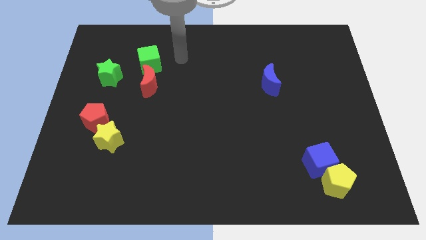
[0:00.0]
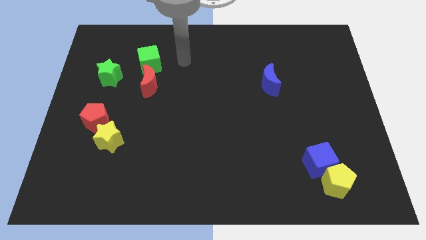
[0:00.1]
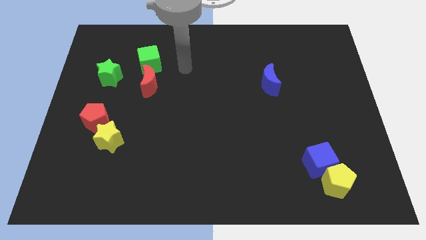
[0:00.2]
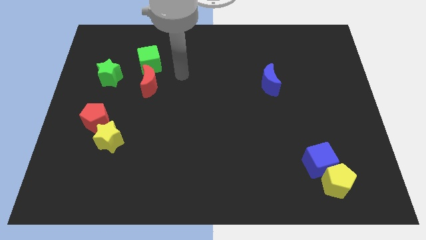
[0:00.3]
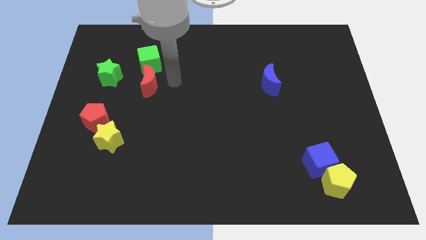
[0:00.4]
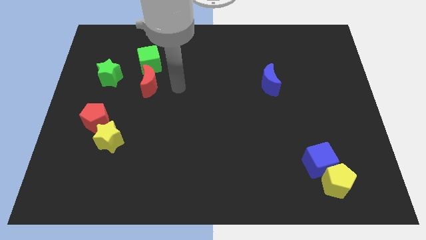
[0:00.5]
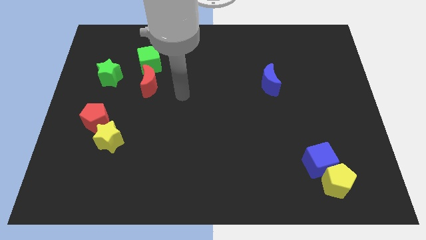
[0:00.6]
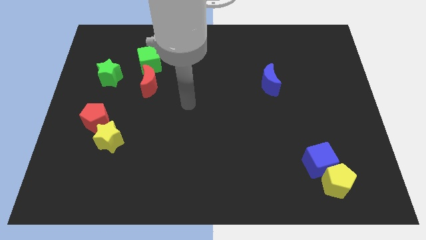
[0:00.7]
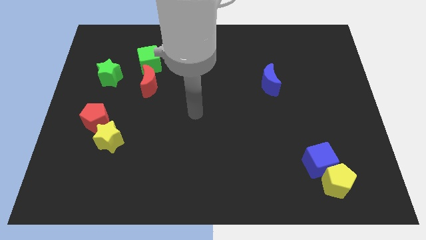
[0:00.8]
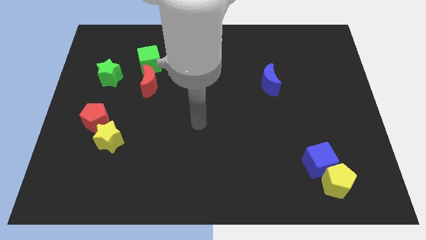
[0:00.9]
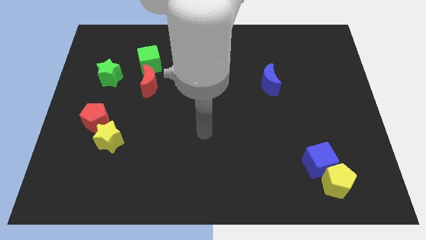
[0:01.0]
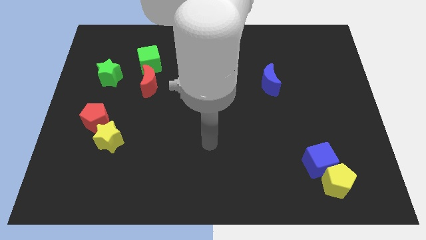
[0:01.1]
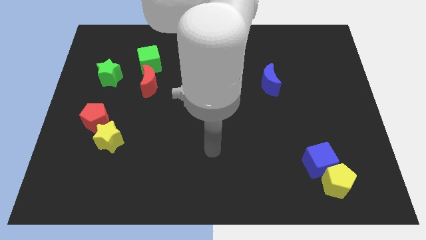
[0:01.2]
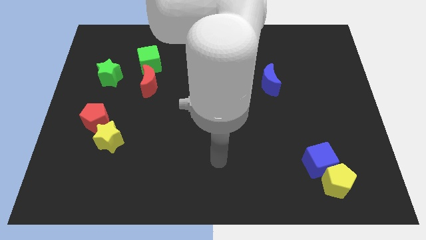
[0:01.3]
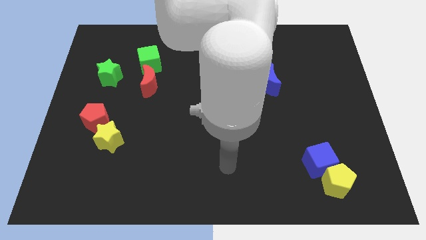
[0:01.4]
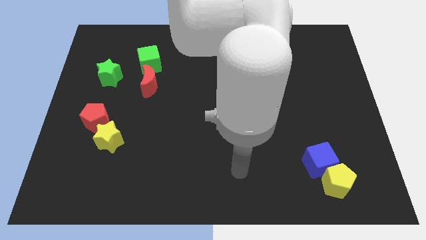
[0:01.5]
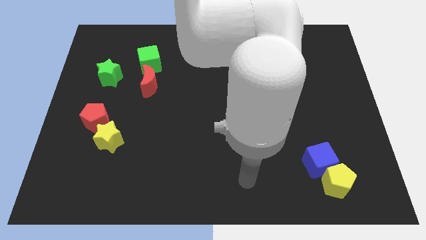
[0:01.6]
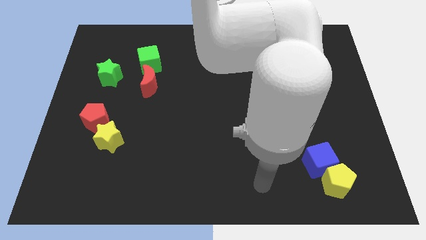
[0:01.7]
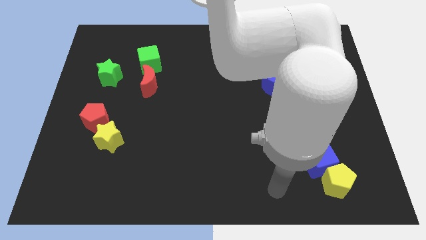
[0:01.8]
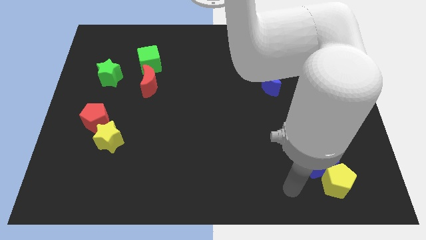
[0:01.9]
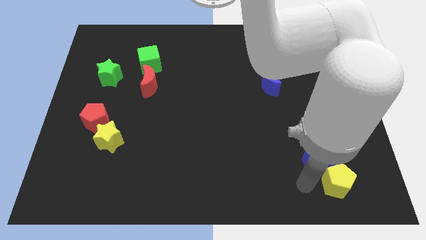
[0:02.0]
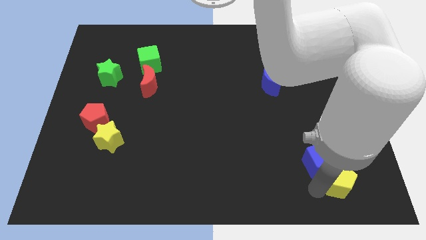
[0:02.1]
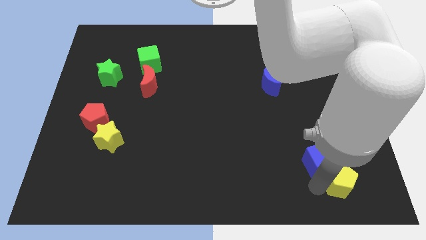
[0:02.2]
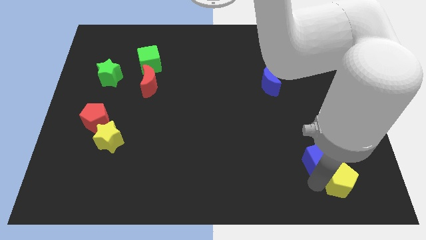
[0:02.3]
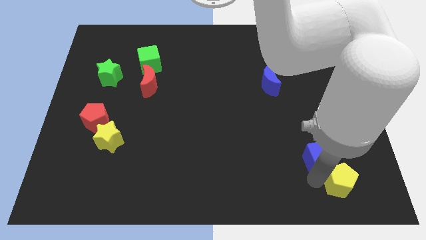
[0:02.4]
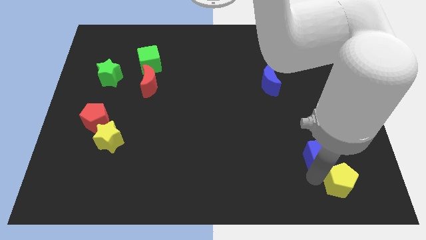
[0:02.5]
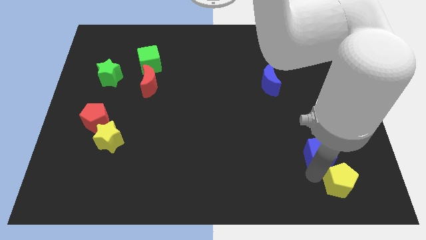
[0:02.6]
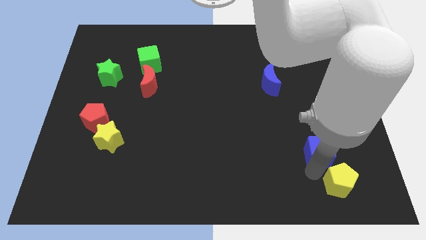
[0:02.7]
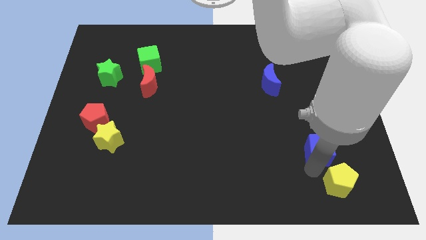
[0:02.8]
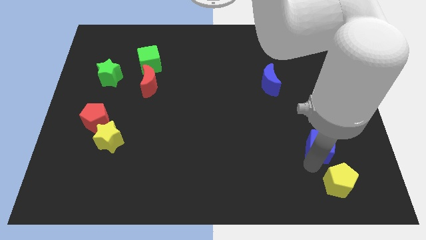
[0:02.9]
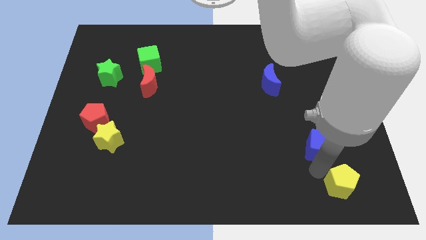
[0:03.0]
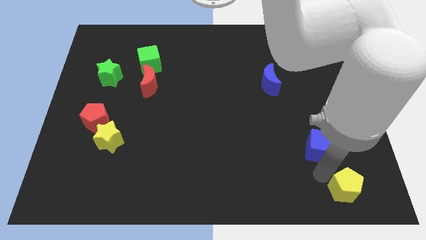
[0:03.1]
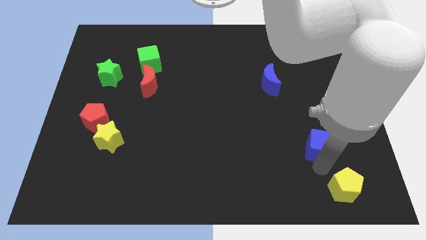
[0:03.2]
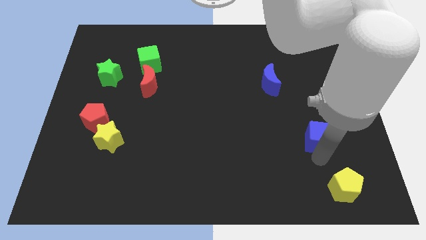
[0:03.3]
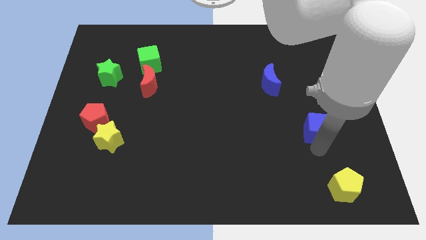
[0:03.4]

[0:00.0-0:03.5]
slightly move the blue cube up

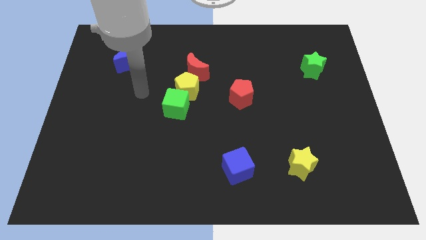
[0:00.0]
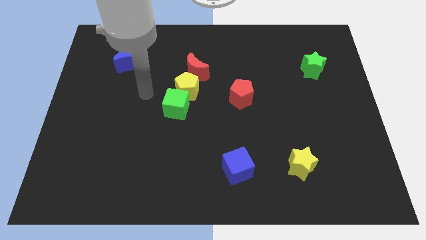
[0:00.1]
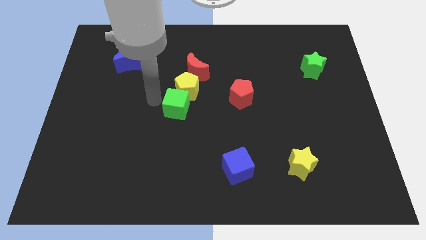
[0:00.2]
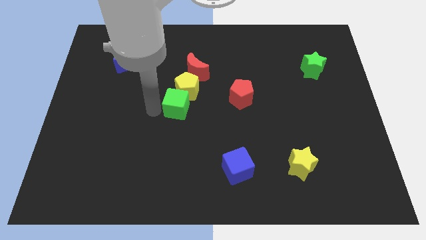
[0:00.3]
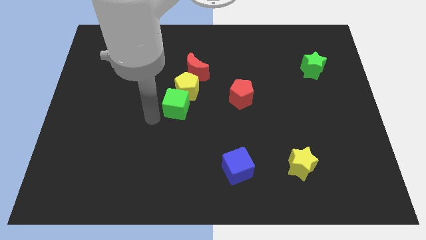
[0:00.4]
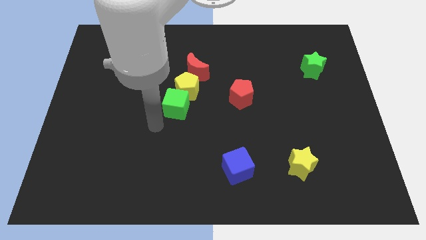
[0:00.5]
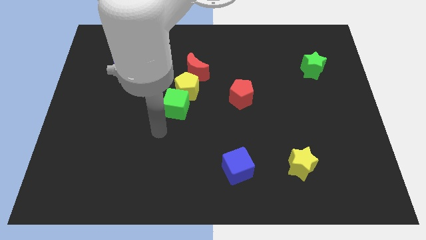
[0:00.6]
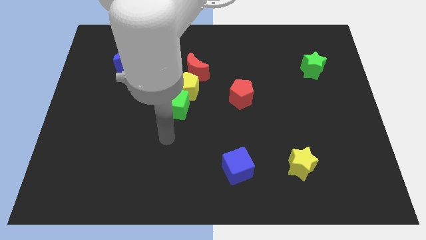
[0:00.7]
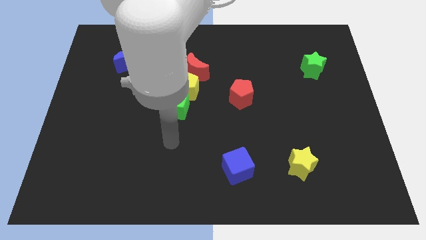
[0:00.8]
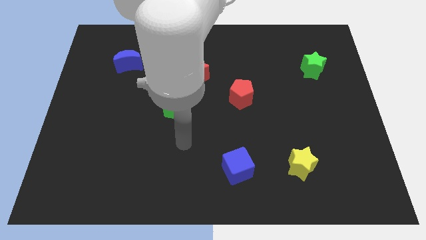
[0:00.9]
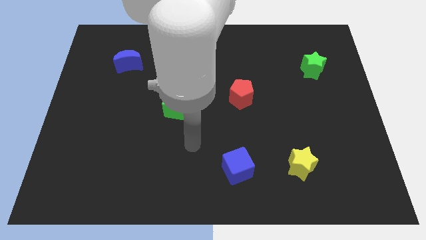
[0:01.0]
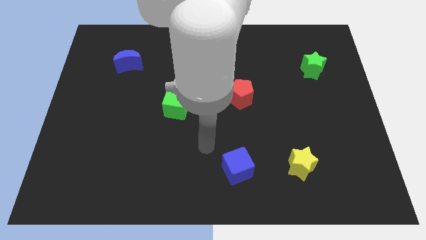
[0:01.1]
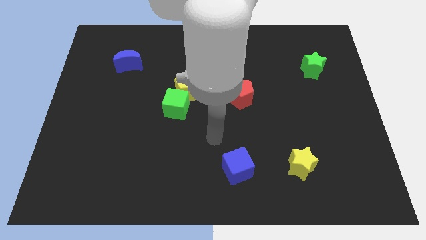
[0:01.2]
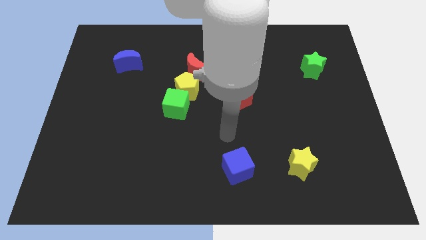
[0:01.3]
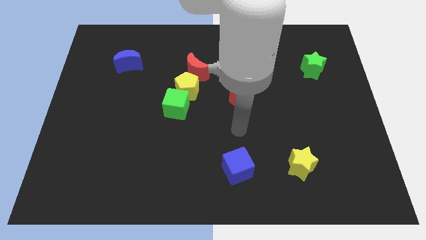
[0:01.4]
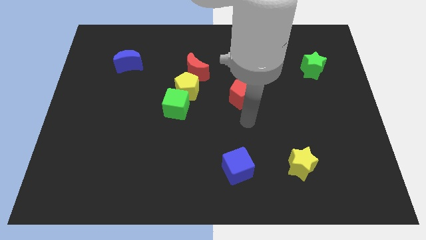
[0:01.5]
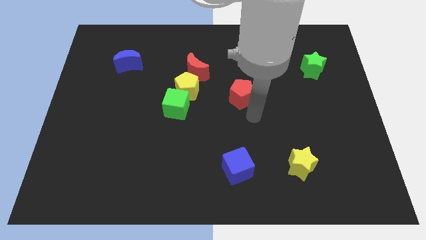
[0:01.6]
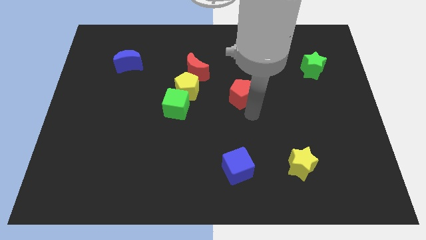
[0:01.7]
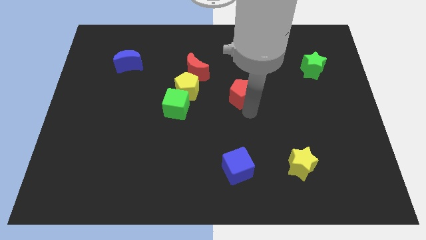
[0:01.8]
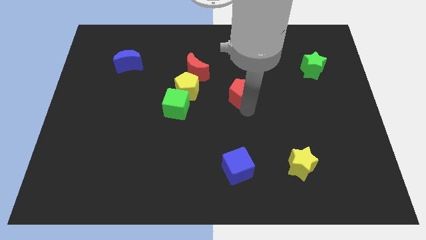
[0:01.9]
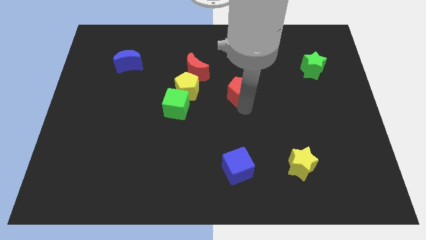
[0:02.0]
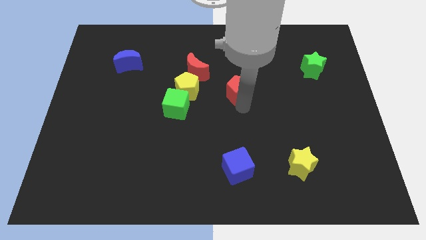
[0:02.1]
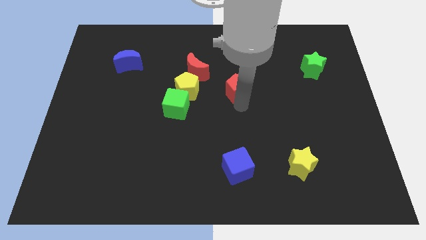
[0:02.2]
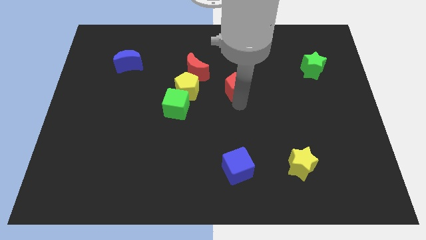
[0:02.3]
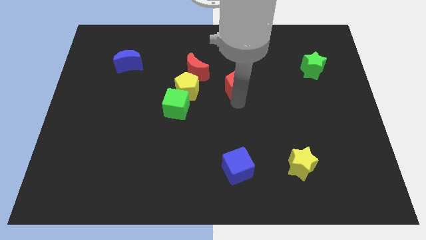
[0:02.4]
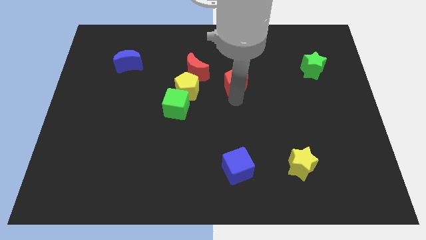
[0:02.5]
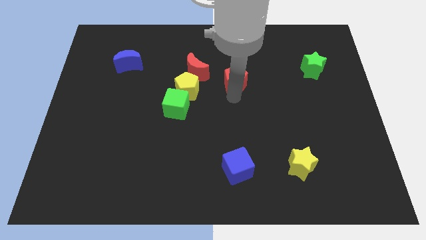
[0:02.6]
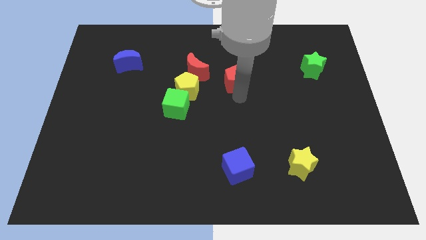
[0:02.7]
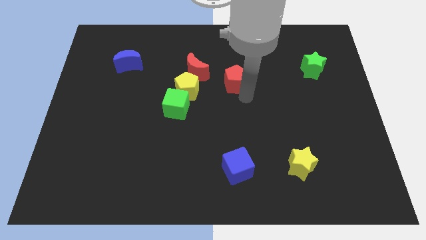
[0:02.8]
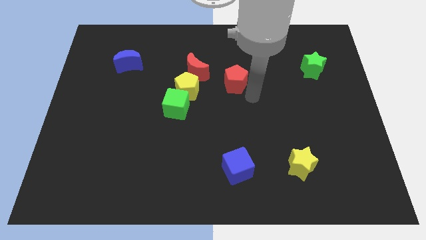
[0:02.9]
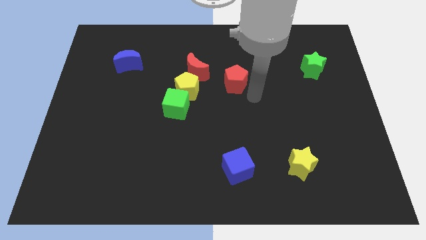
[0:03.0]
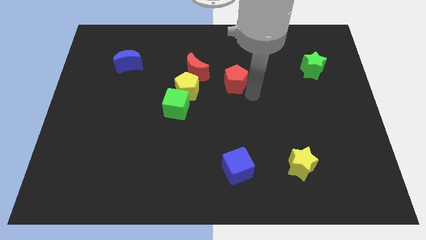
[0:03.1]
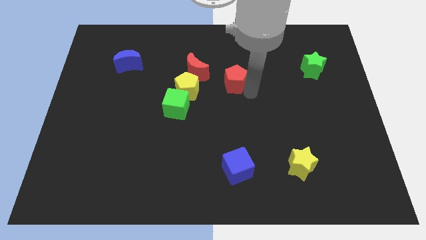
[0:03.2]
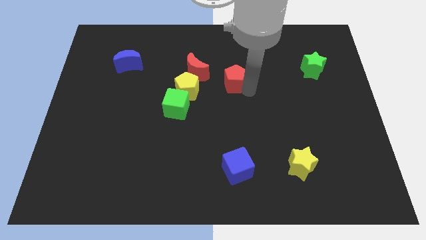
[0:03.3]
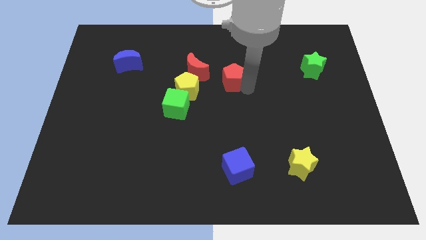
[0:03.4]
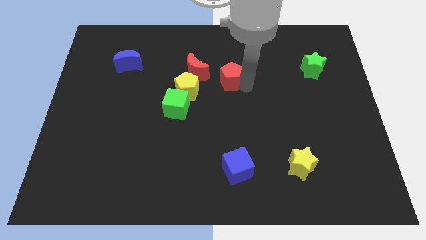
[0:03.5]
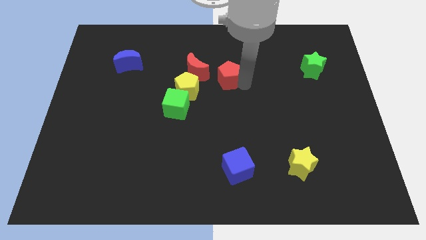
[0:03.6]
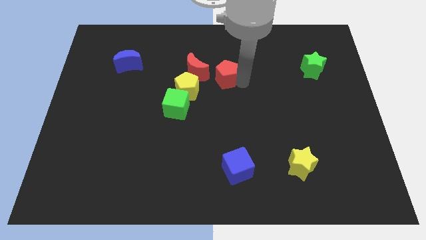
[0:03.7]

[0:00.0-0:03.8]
slide the red pentagon upwards and to the left diagonally somewhat

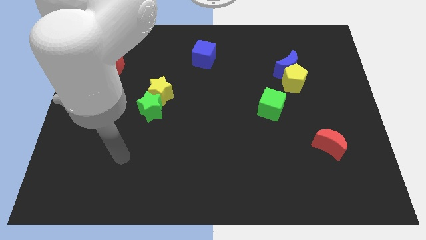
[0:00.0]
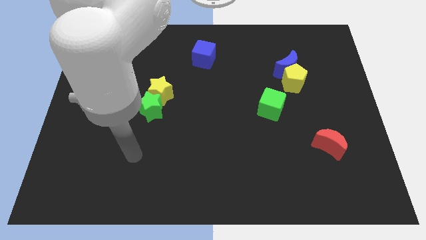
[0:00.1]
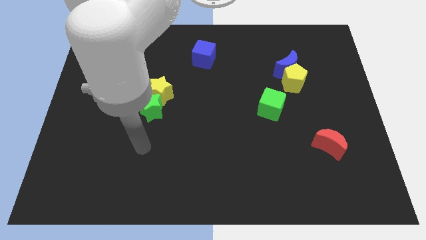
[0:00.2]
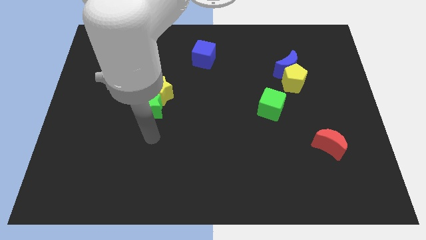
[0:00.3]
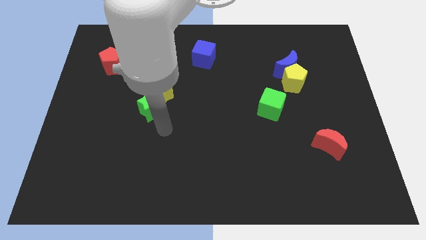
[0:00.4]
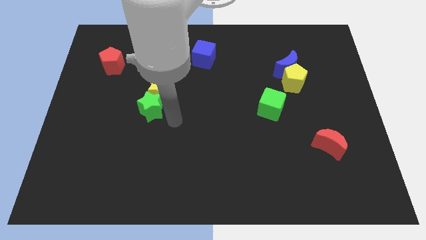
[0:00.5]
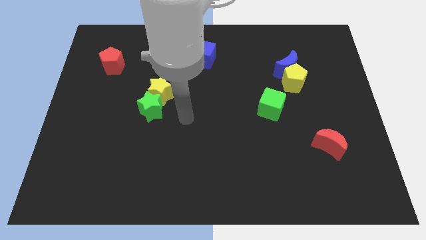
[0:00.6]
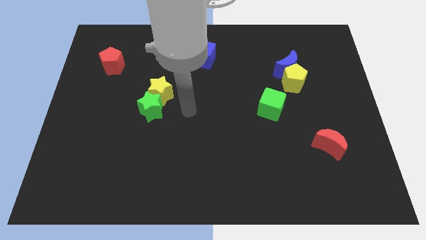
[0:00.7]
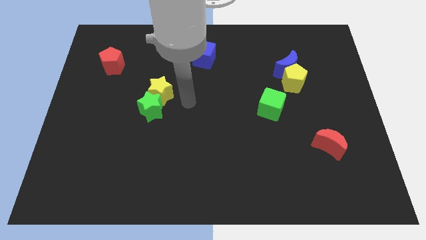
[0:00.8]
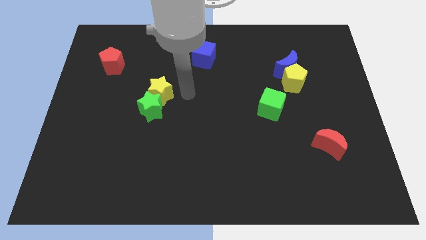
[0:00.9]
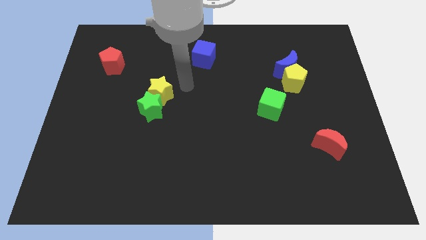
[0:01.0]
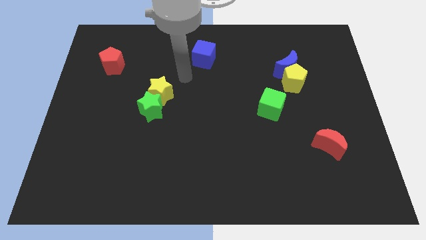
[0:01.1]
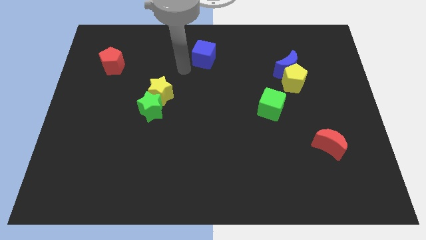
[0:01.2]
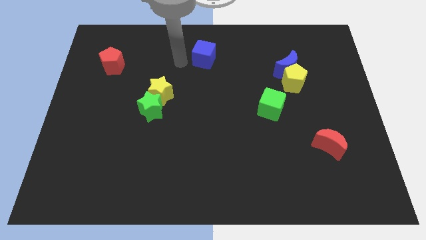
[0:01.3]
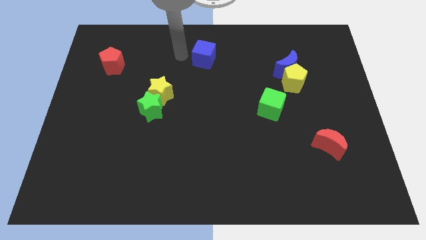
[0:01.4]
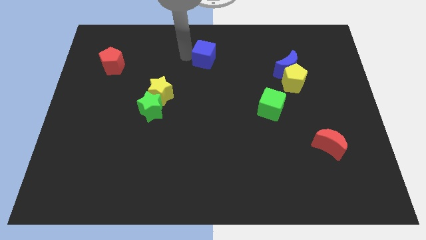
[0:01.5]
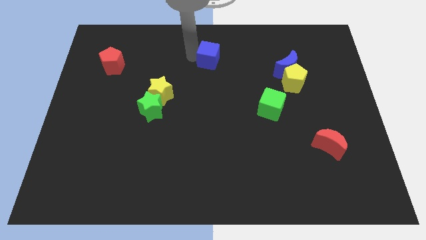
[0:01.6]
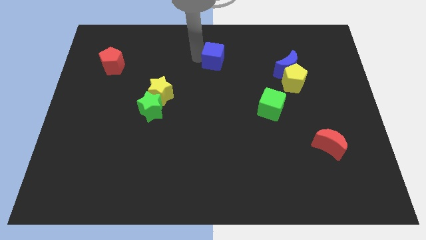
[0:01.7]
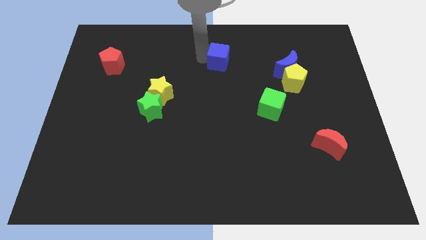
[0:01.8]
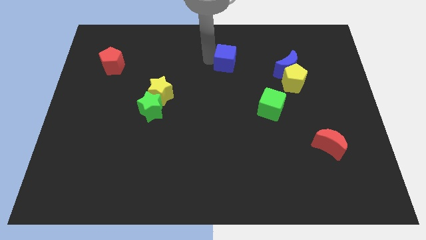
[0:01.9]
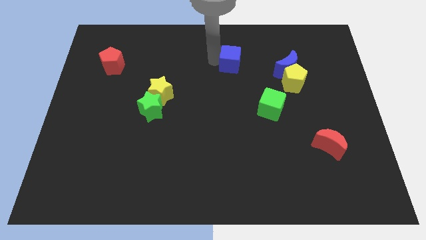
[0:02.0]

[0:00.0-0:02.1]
slide the blue cube a little right
